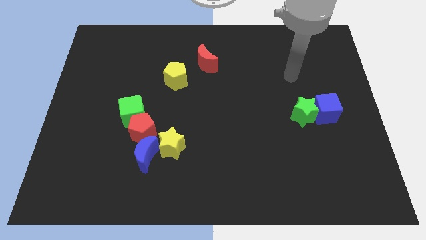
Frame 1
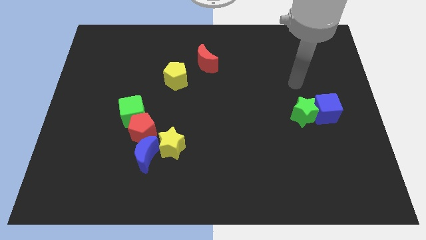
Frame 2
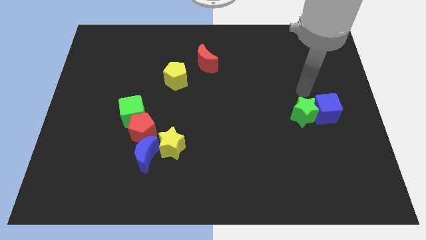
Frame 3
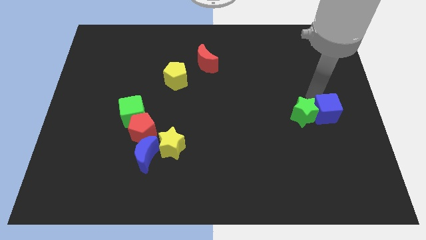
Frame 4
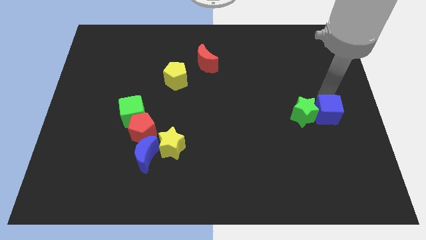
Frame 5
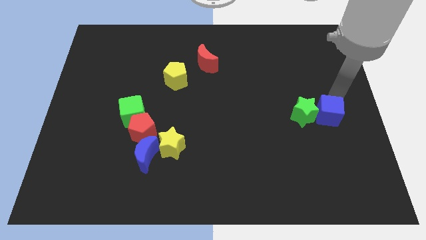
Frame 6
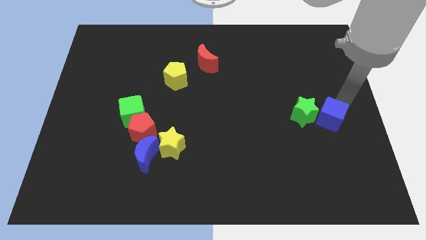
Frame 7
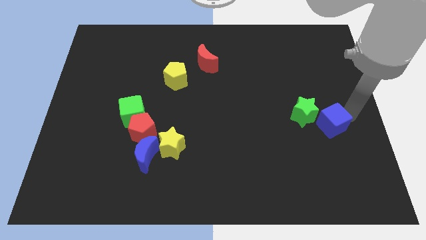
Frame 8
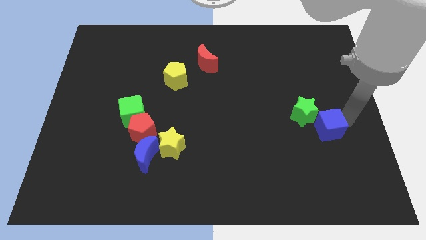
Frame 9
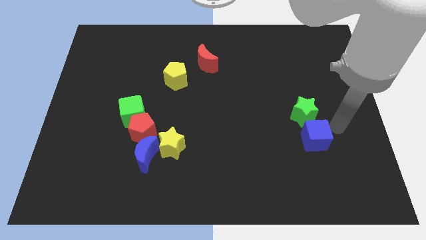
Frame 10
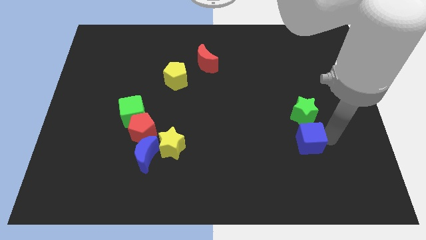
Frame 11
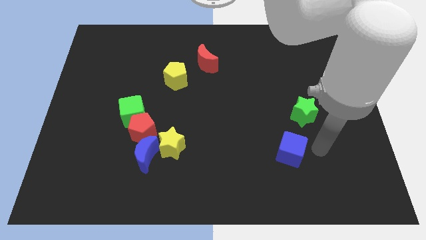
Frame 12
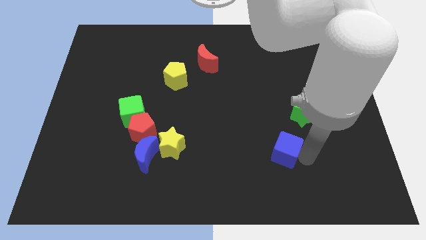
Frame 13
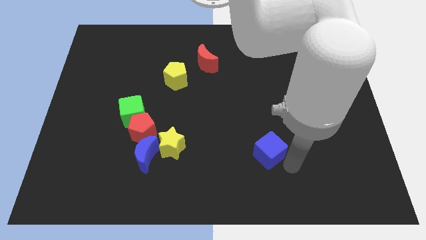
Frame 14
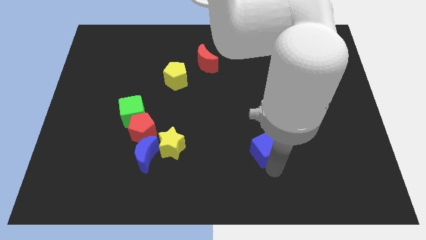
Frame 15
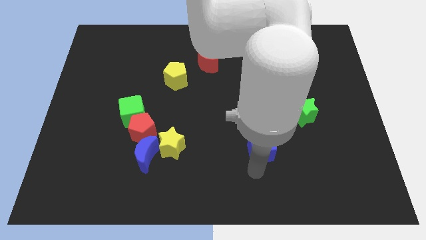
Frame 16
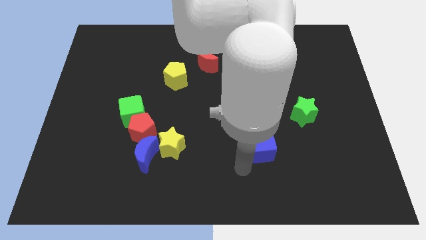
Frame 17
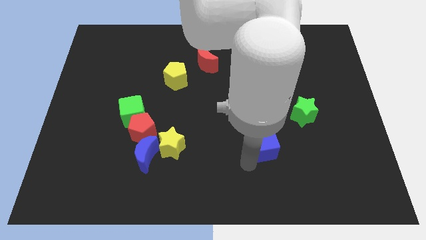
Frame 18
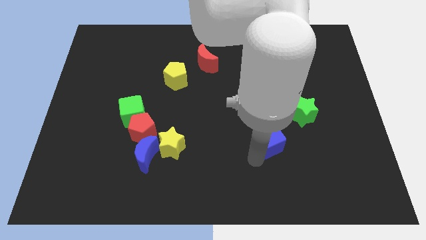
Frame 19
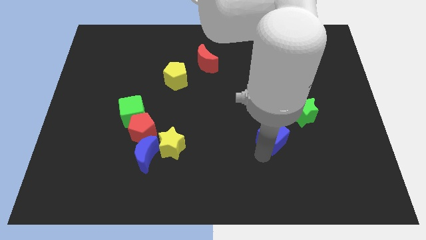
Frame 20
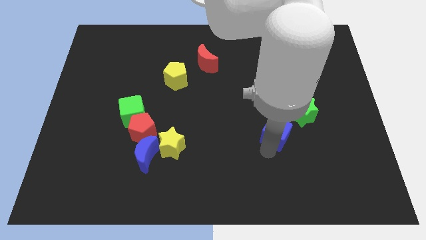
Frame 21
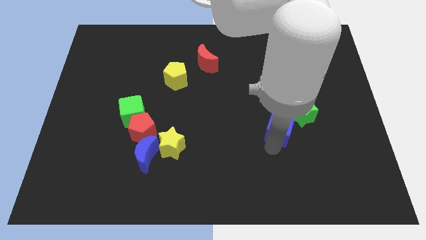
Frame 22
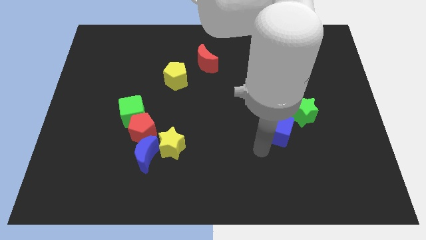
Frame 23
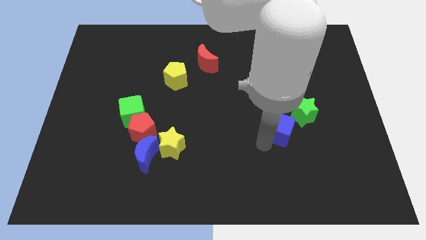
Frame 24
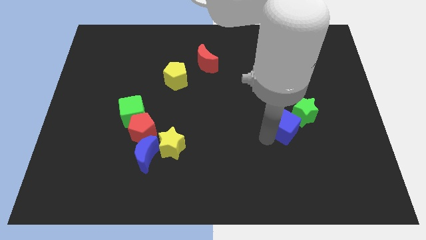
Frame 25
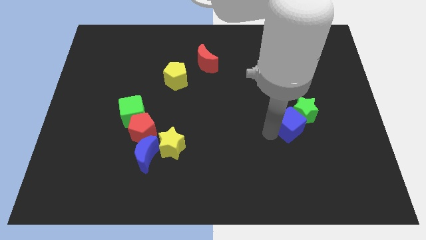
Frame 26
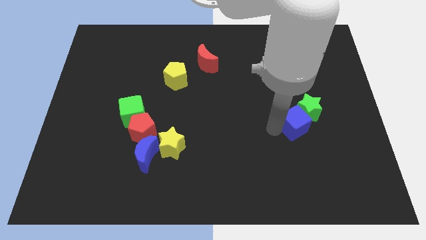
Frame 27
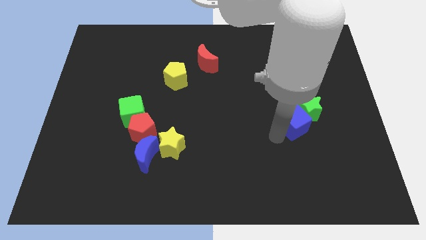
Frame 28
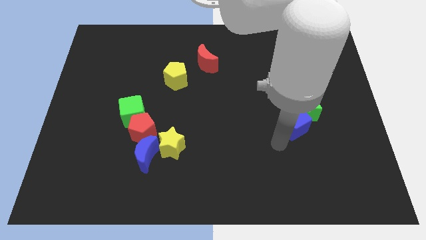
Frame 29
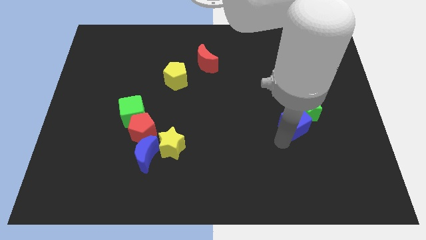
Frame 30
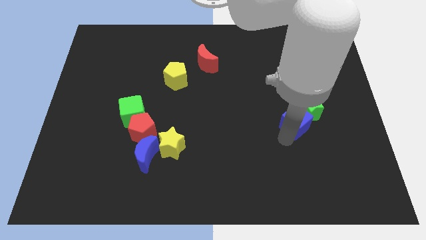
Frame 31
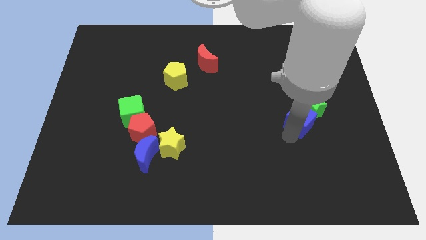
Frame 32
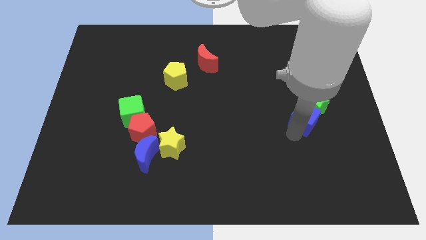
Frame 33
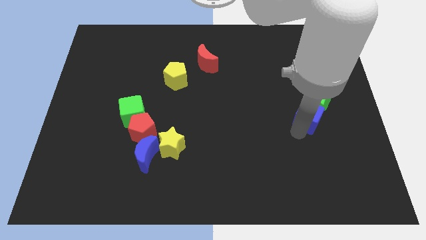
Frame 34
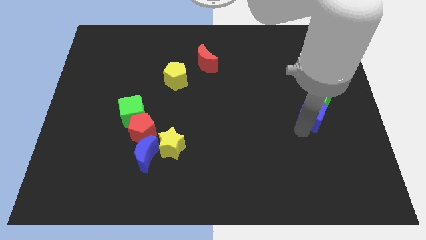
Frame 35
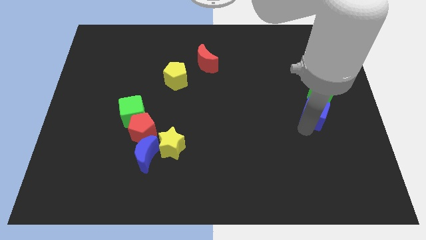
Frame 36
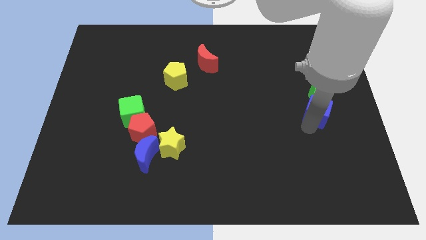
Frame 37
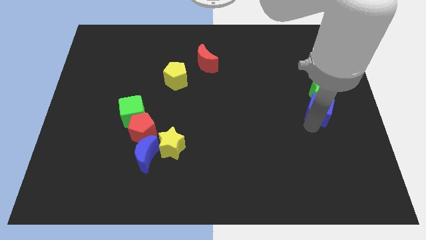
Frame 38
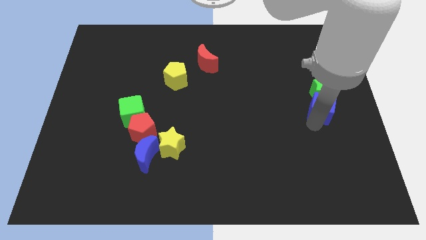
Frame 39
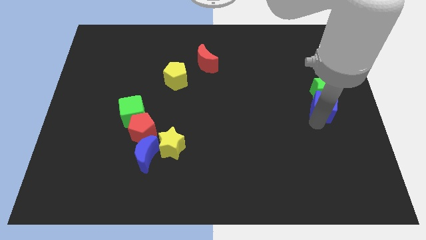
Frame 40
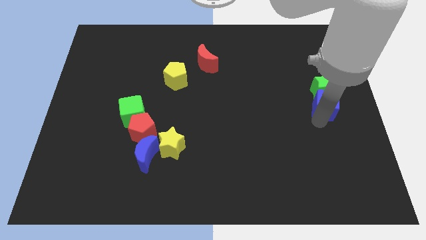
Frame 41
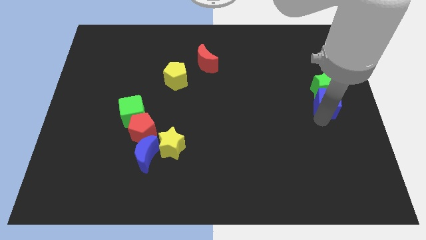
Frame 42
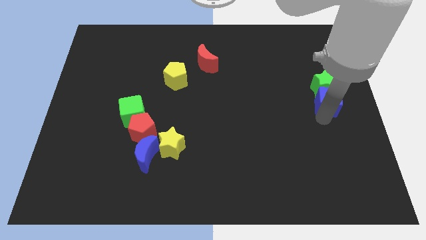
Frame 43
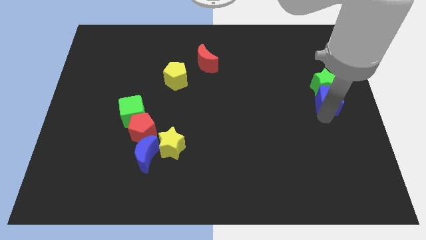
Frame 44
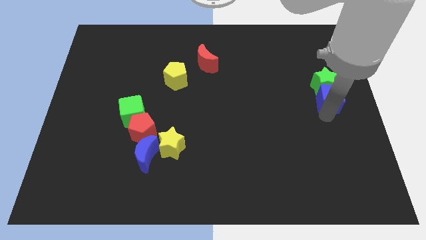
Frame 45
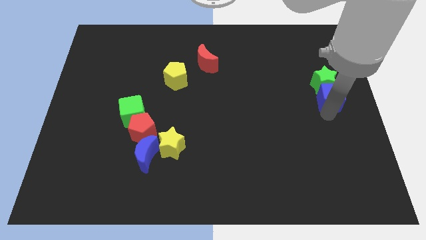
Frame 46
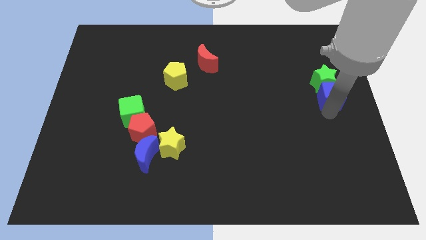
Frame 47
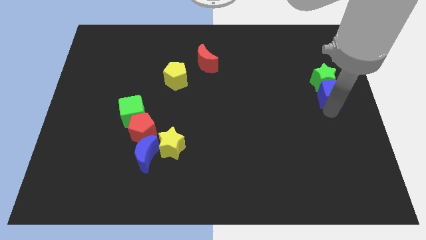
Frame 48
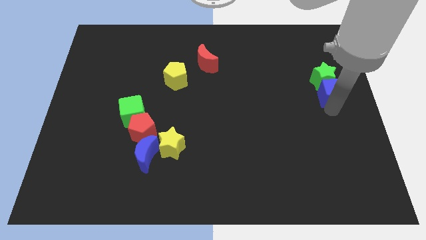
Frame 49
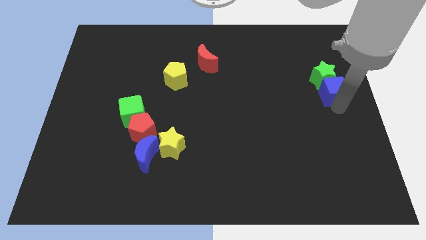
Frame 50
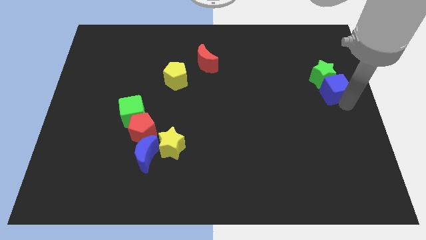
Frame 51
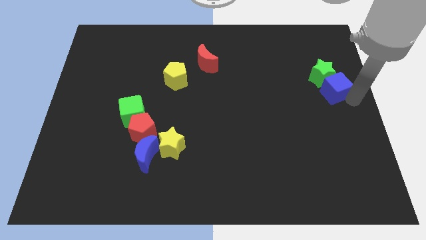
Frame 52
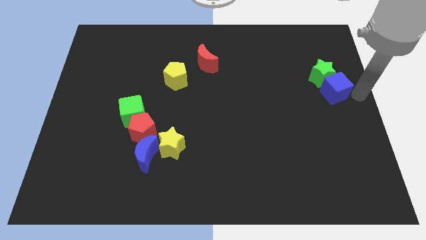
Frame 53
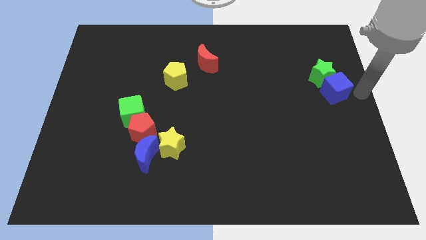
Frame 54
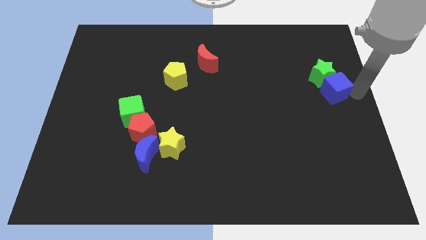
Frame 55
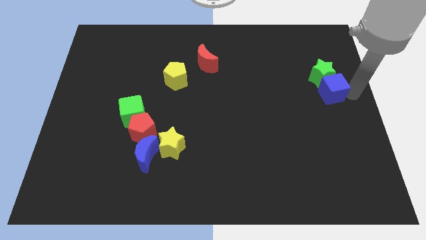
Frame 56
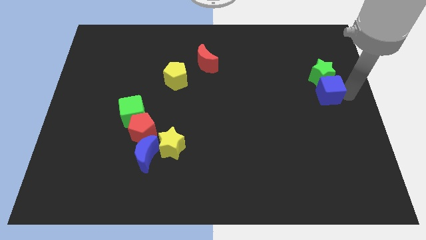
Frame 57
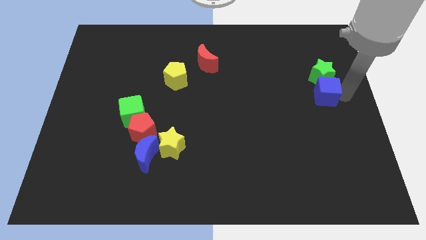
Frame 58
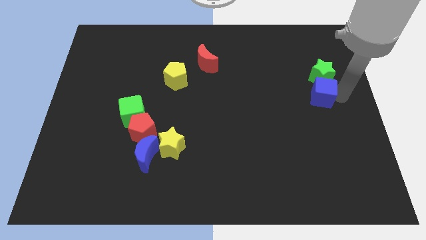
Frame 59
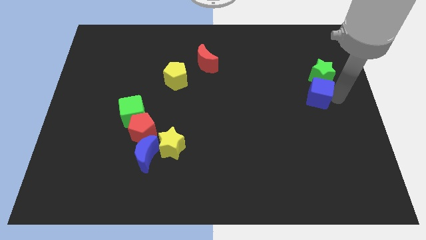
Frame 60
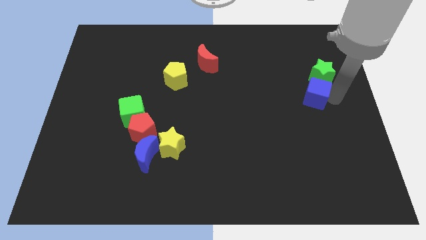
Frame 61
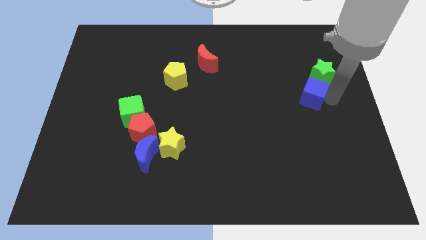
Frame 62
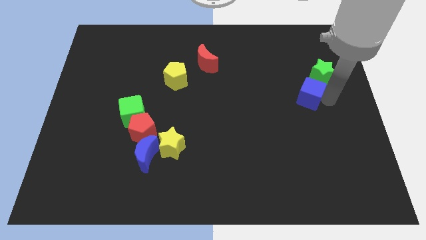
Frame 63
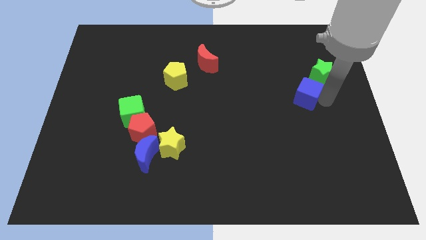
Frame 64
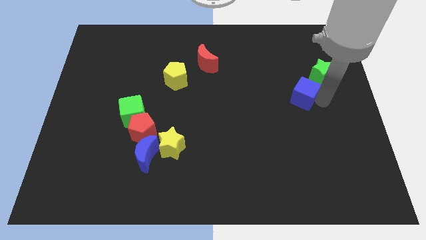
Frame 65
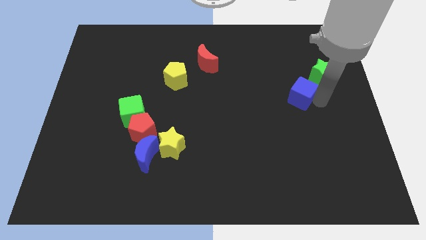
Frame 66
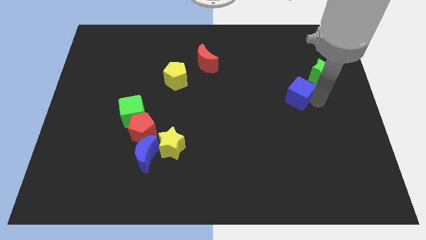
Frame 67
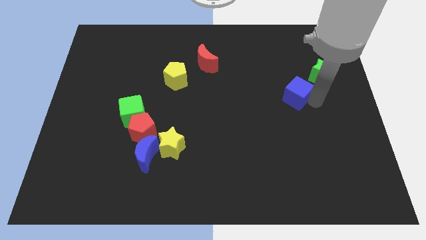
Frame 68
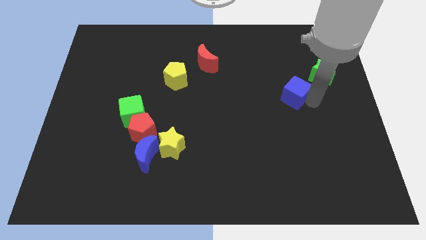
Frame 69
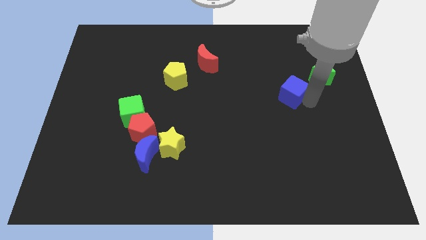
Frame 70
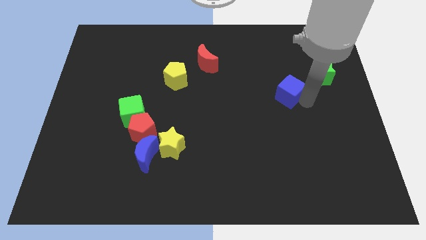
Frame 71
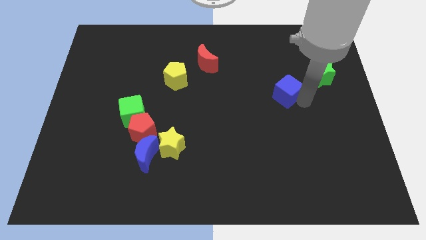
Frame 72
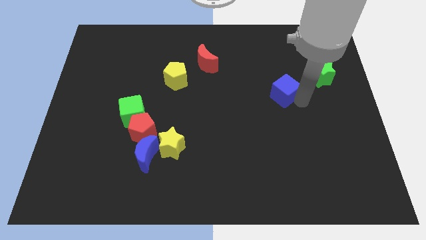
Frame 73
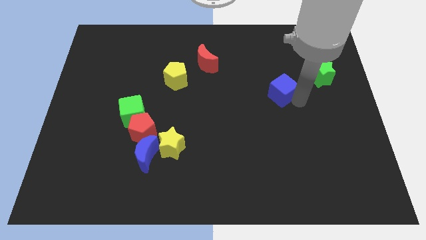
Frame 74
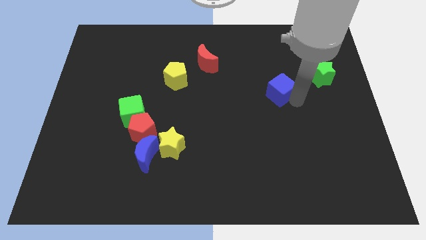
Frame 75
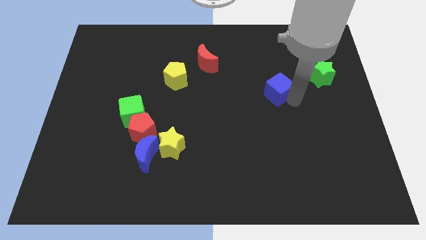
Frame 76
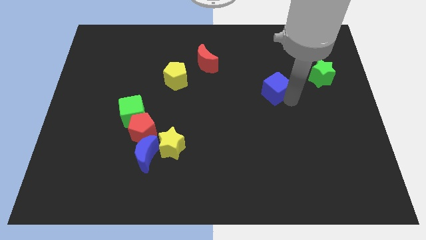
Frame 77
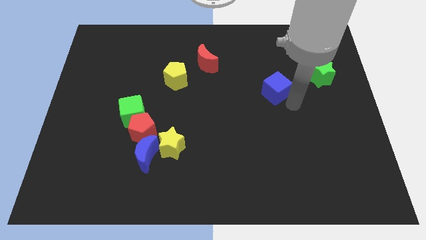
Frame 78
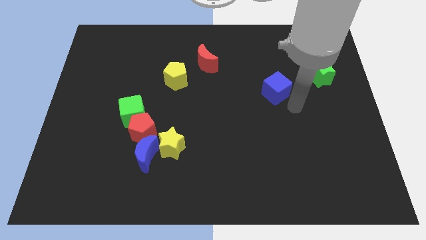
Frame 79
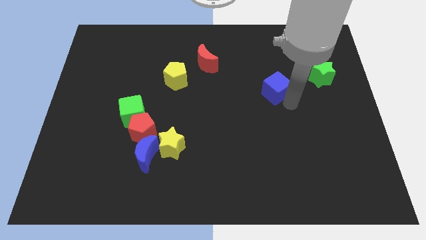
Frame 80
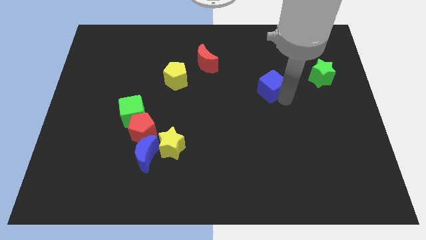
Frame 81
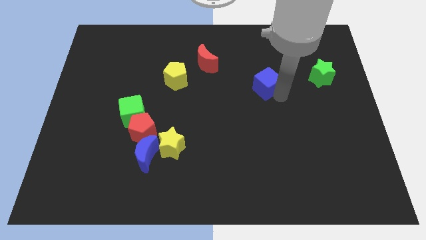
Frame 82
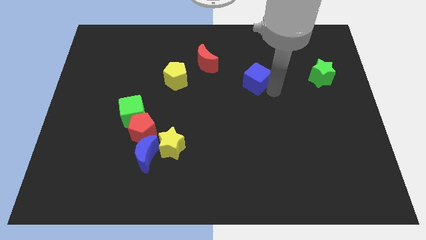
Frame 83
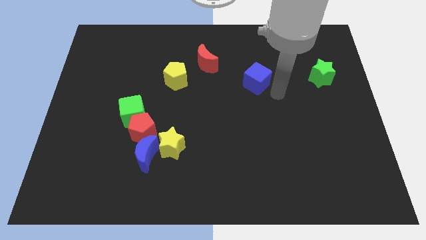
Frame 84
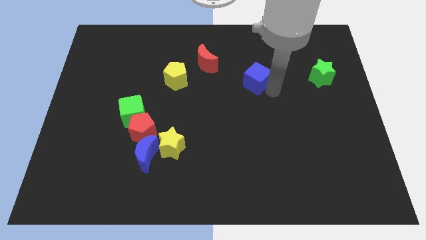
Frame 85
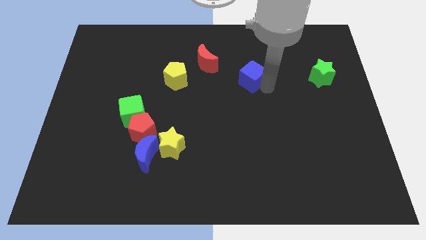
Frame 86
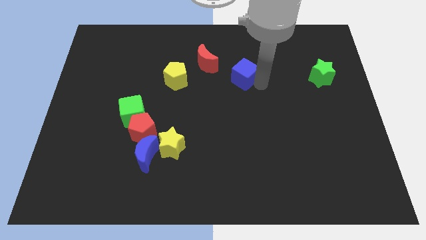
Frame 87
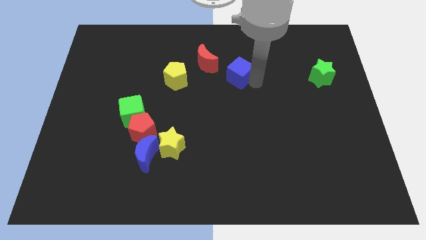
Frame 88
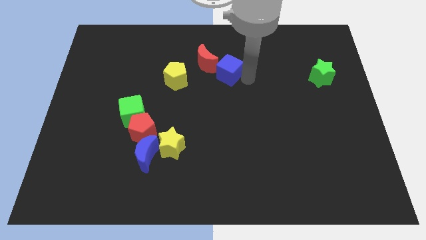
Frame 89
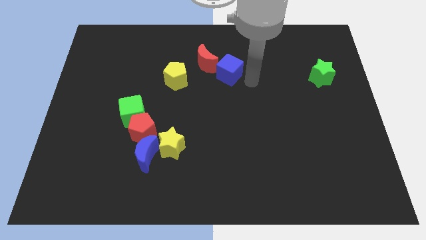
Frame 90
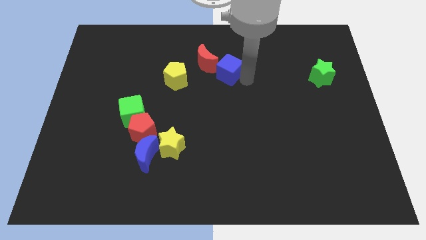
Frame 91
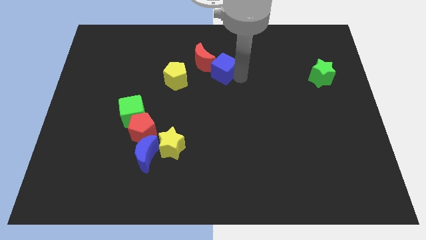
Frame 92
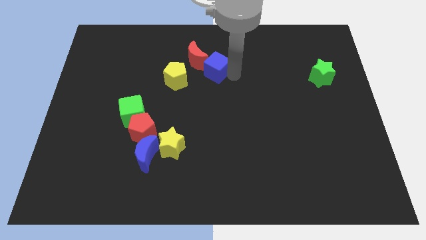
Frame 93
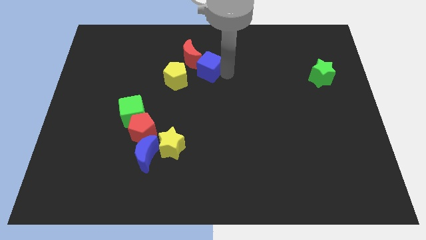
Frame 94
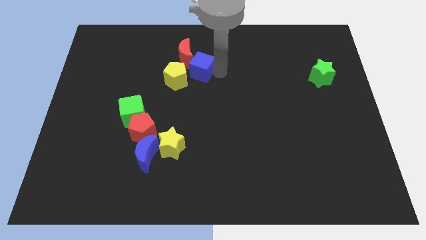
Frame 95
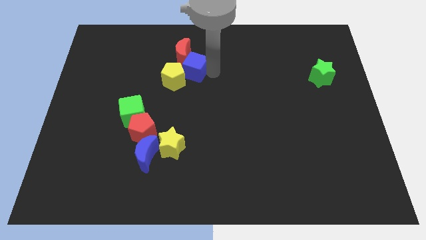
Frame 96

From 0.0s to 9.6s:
put the blue cube next to the red moon
